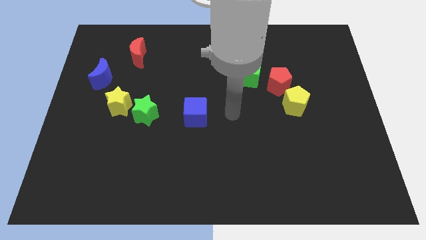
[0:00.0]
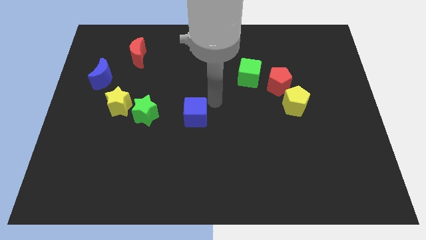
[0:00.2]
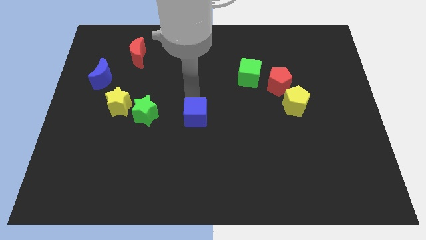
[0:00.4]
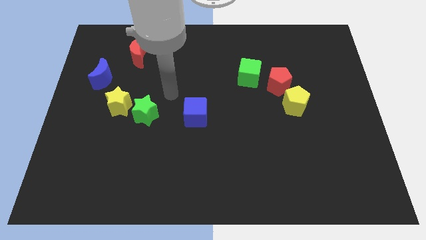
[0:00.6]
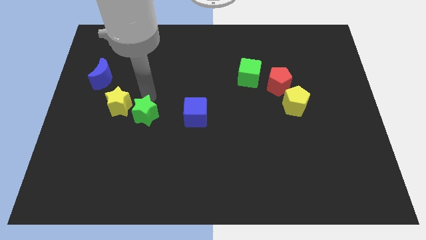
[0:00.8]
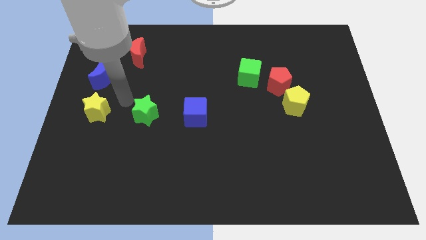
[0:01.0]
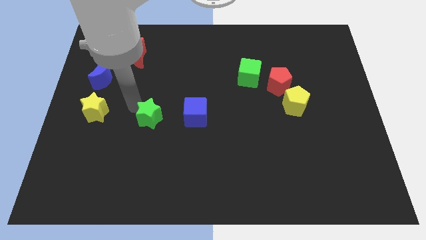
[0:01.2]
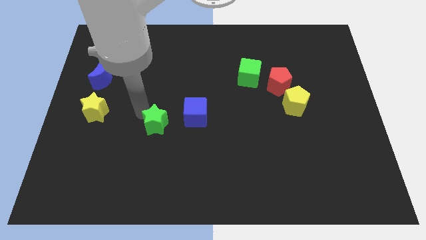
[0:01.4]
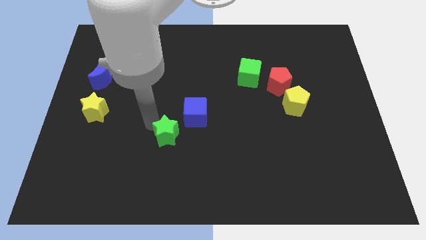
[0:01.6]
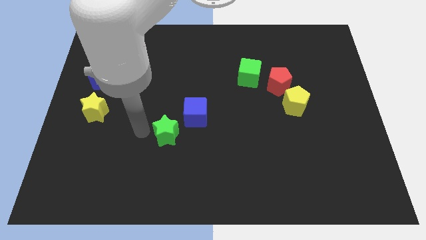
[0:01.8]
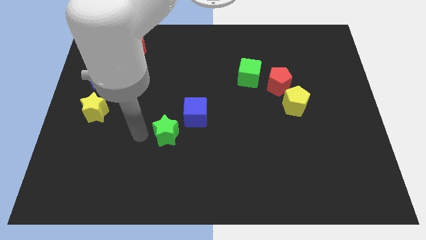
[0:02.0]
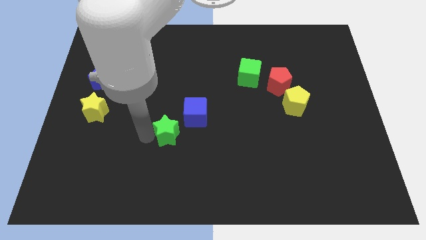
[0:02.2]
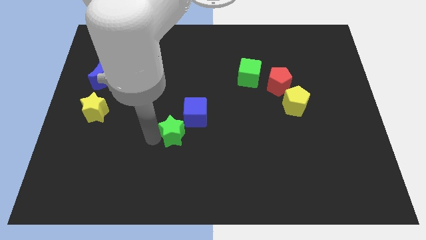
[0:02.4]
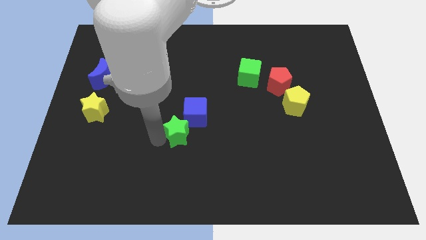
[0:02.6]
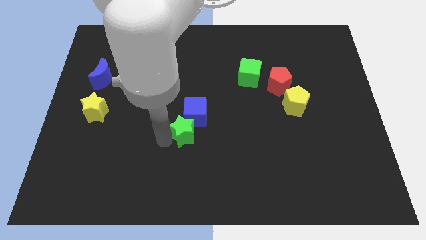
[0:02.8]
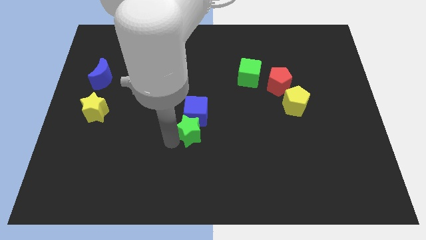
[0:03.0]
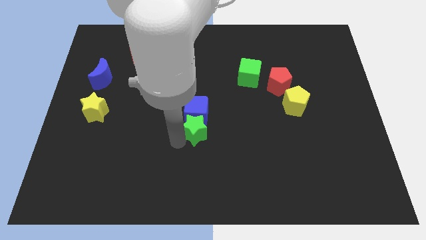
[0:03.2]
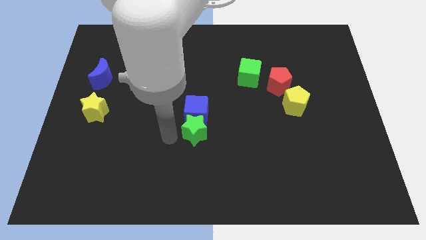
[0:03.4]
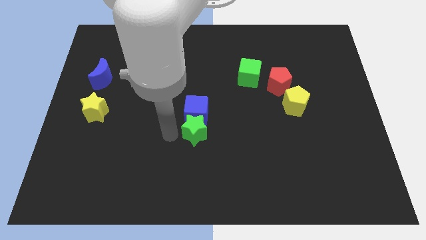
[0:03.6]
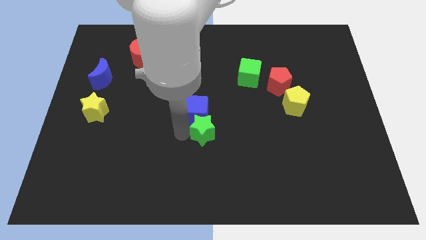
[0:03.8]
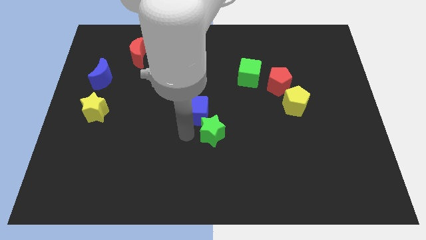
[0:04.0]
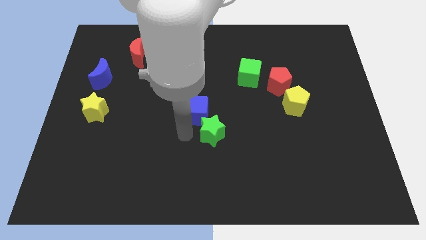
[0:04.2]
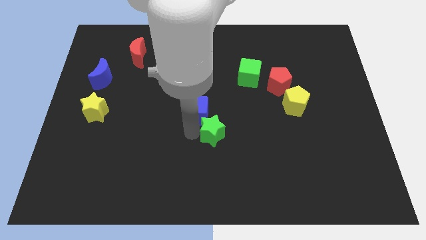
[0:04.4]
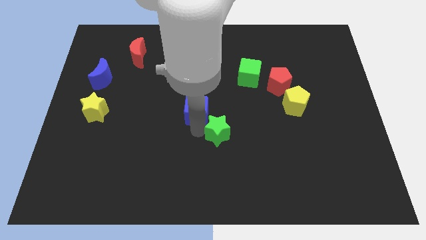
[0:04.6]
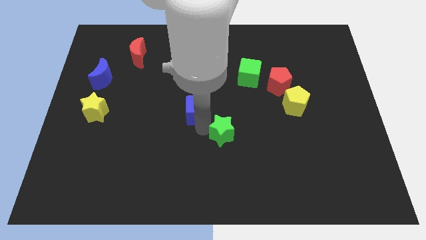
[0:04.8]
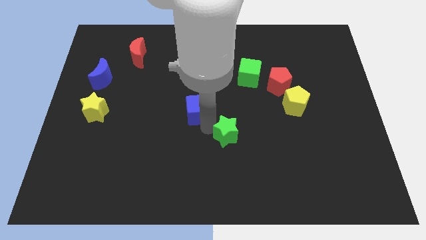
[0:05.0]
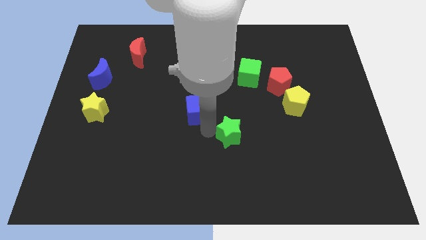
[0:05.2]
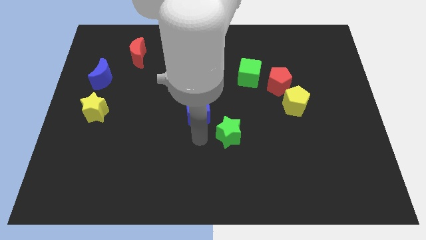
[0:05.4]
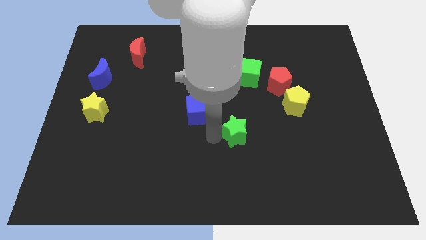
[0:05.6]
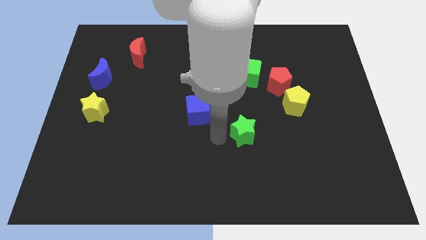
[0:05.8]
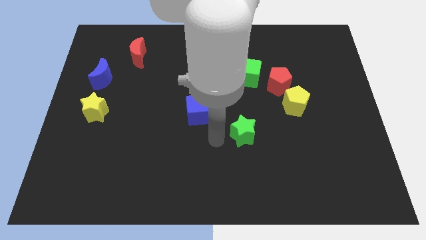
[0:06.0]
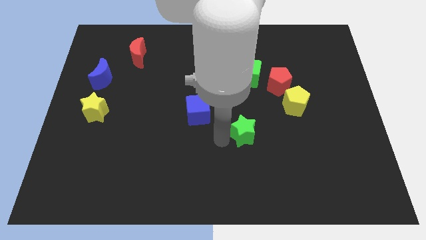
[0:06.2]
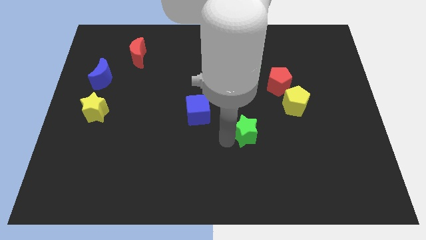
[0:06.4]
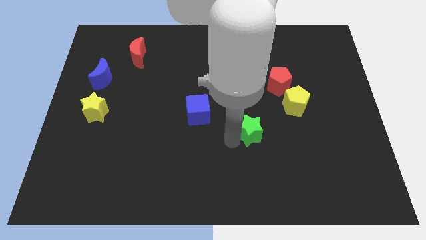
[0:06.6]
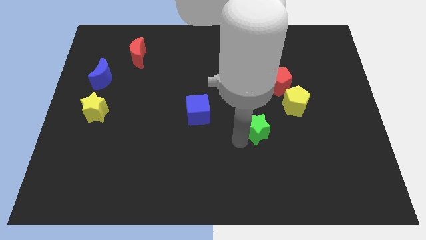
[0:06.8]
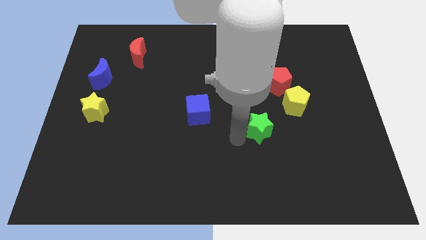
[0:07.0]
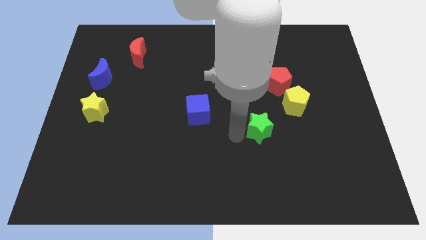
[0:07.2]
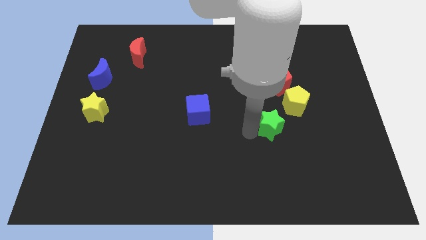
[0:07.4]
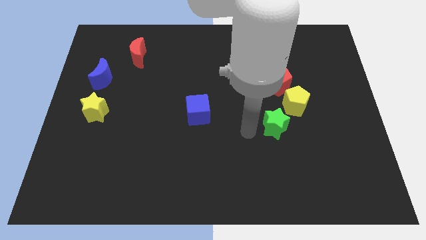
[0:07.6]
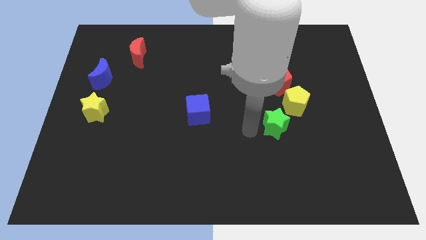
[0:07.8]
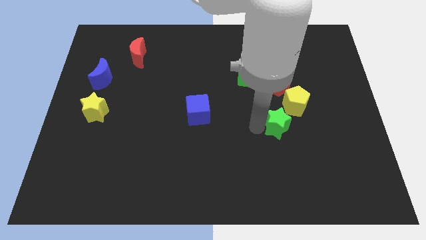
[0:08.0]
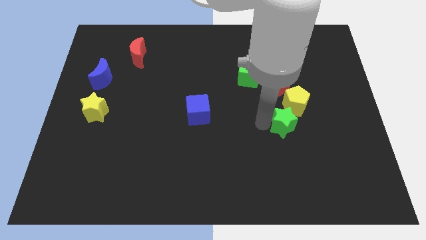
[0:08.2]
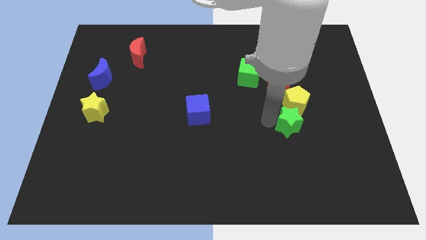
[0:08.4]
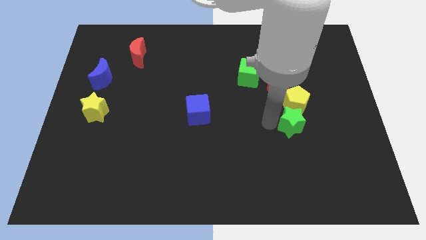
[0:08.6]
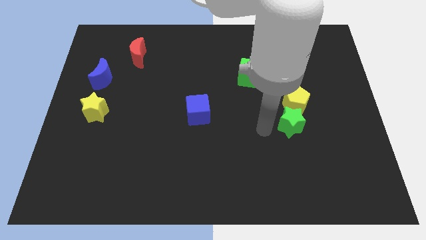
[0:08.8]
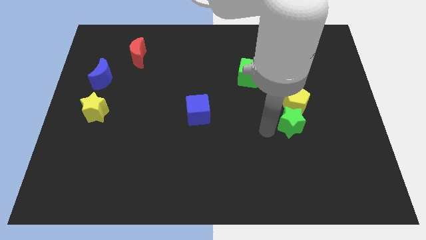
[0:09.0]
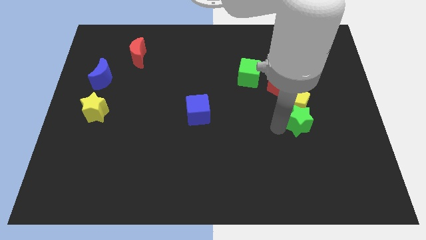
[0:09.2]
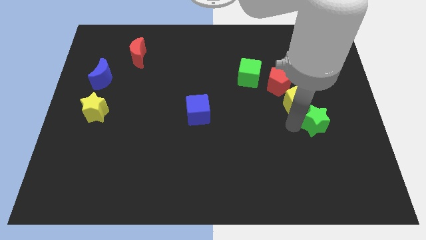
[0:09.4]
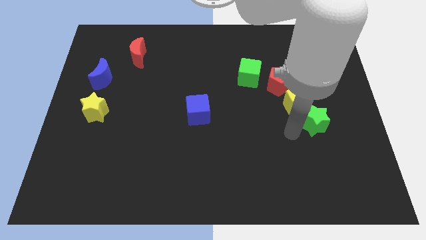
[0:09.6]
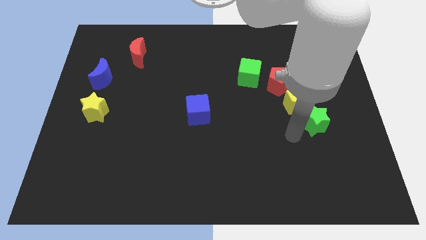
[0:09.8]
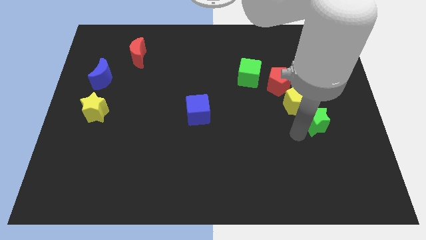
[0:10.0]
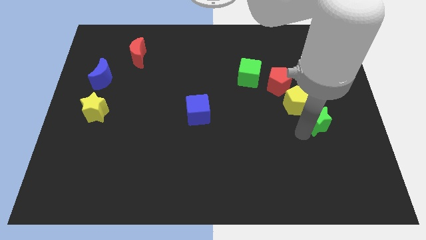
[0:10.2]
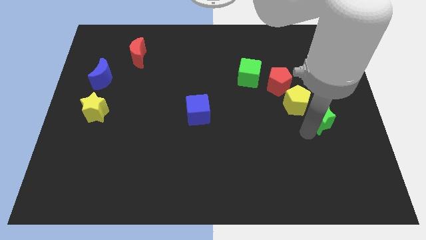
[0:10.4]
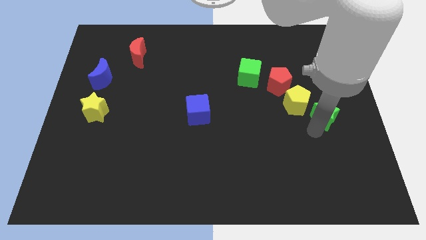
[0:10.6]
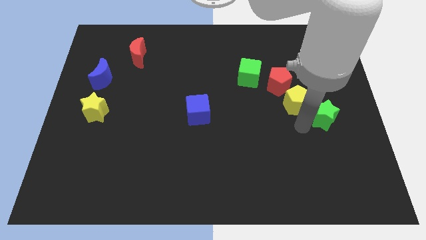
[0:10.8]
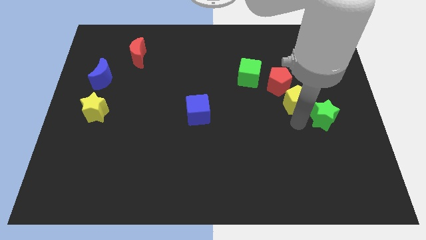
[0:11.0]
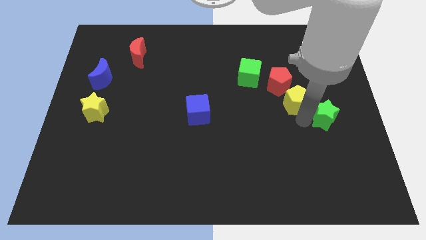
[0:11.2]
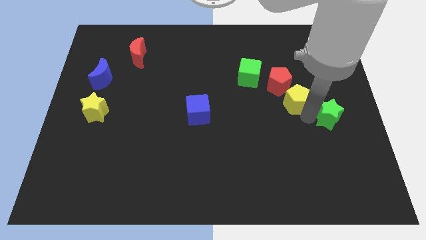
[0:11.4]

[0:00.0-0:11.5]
move the green star to the right side

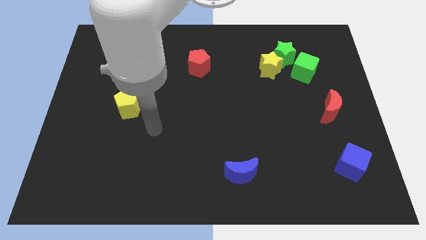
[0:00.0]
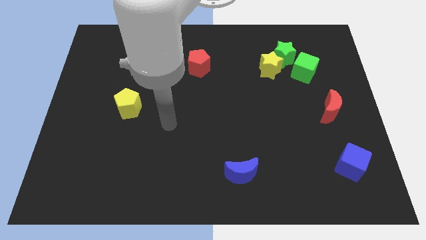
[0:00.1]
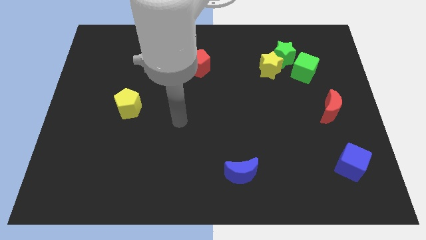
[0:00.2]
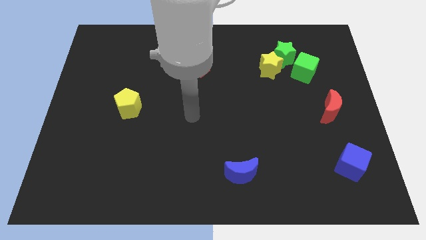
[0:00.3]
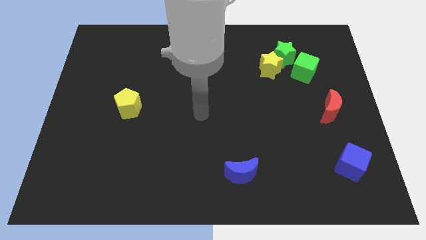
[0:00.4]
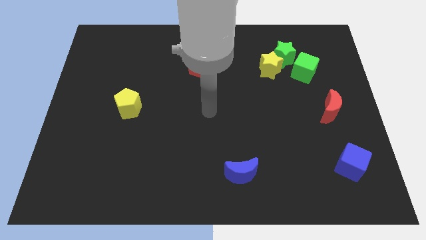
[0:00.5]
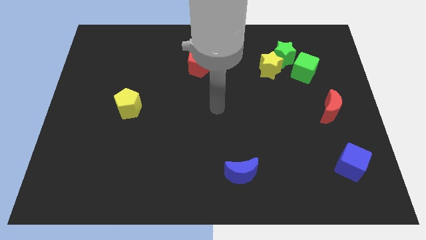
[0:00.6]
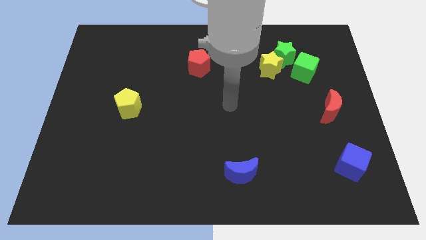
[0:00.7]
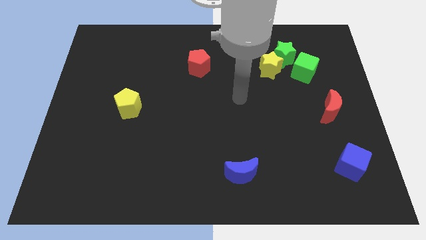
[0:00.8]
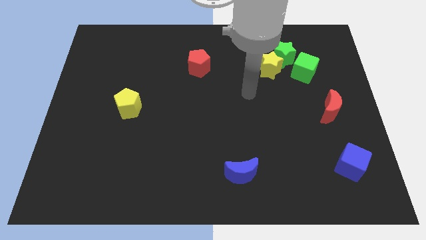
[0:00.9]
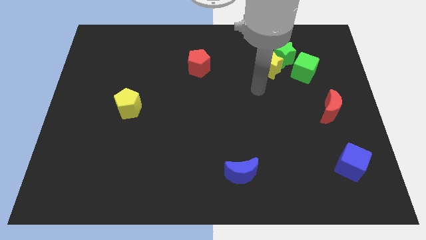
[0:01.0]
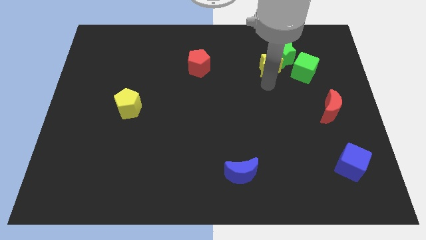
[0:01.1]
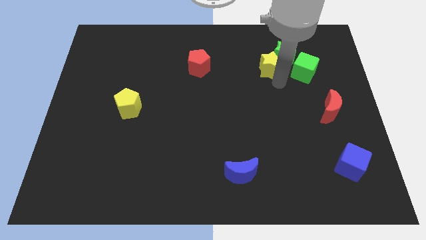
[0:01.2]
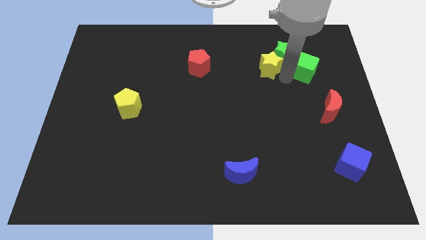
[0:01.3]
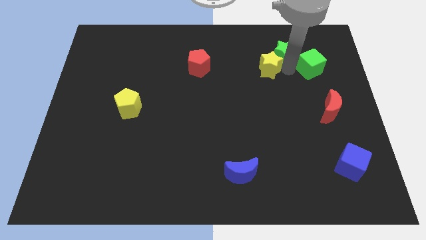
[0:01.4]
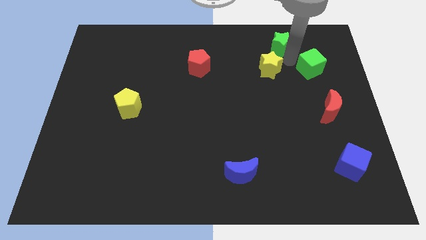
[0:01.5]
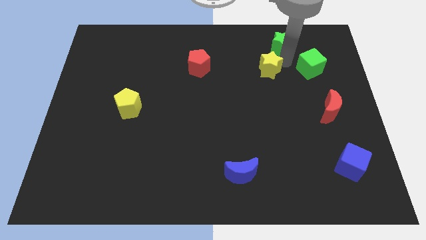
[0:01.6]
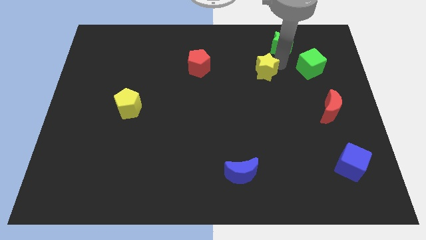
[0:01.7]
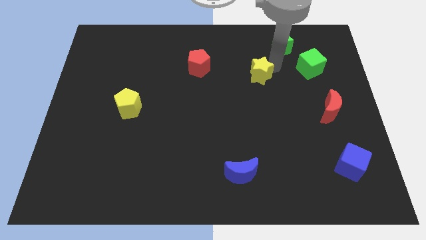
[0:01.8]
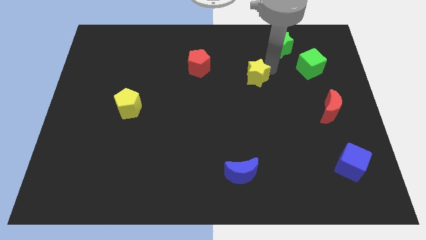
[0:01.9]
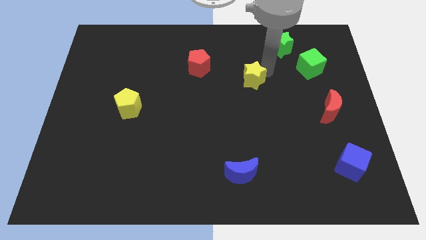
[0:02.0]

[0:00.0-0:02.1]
put the yellow star to the center of the board
